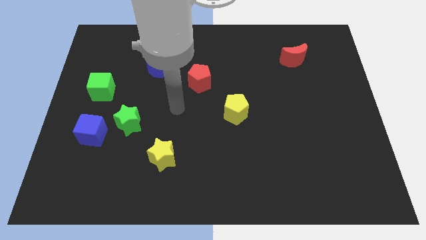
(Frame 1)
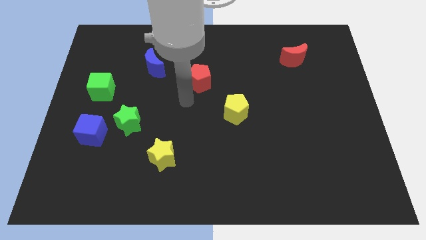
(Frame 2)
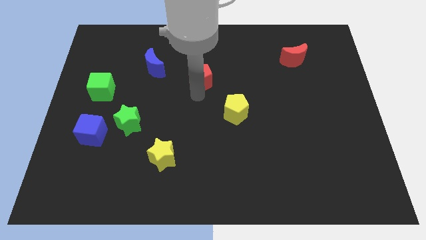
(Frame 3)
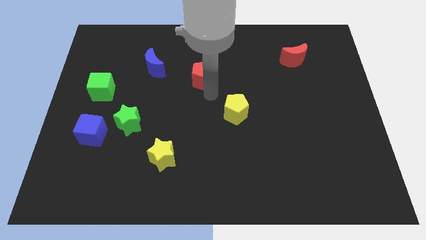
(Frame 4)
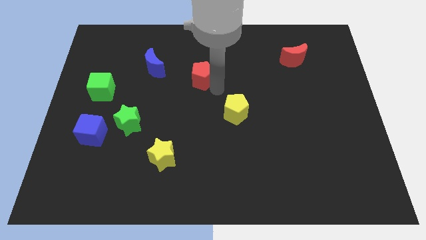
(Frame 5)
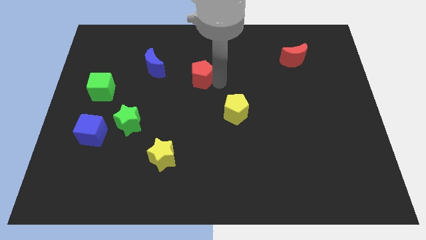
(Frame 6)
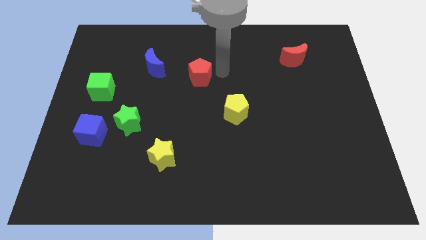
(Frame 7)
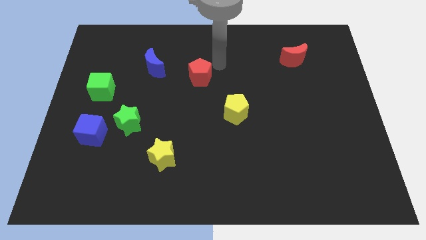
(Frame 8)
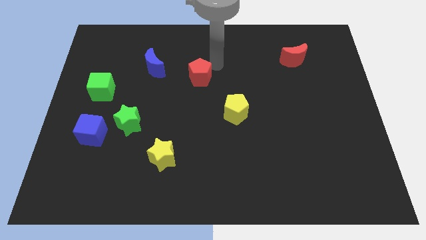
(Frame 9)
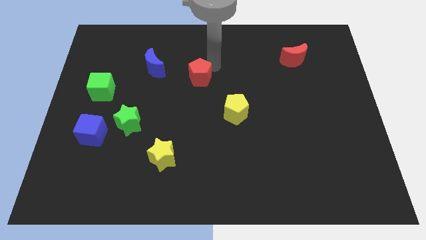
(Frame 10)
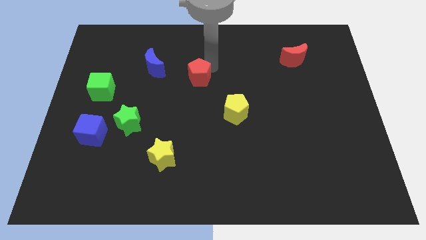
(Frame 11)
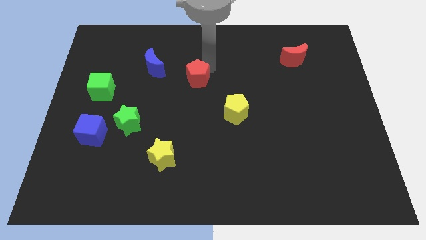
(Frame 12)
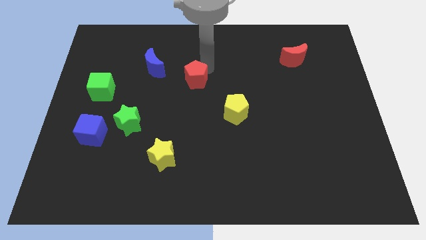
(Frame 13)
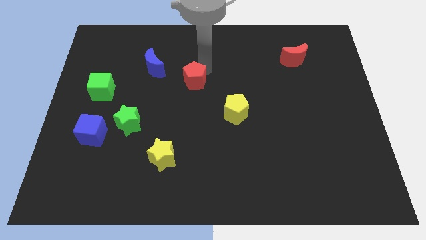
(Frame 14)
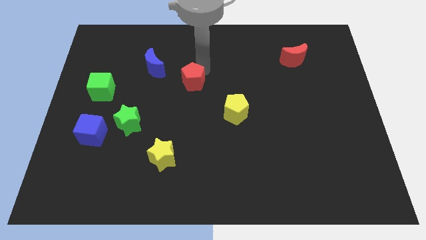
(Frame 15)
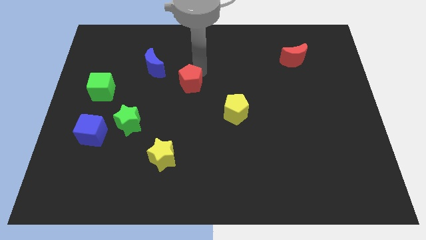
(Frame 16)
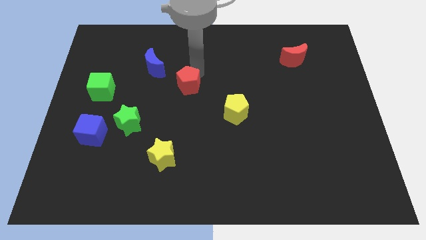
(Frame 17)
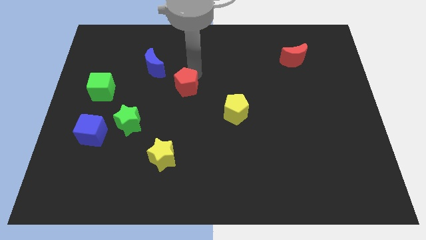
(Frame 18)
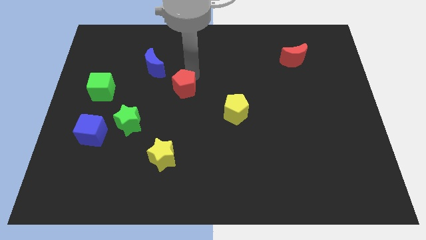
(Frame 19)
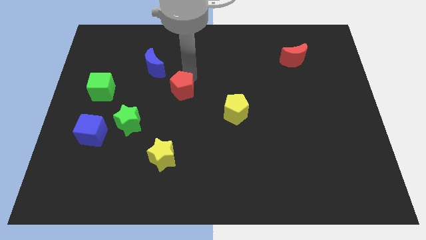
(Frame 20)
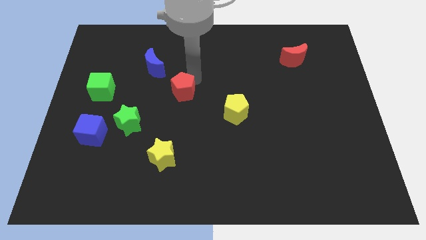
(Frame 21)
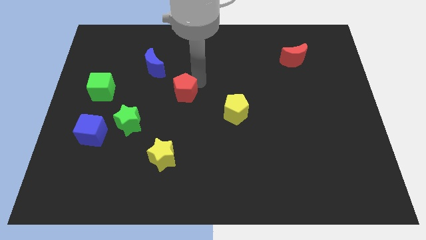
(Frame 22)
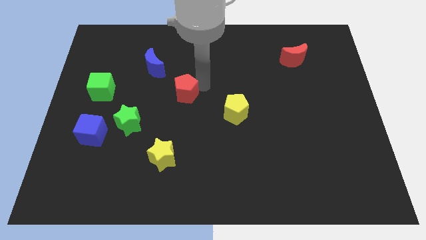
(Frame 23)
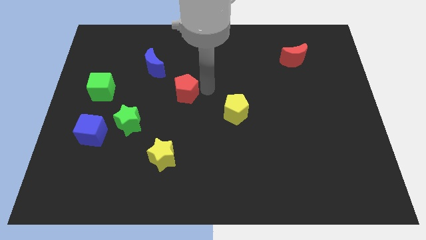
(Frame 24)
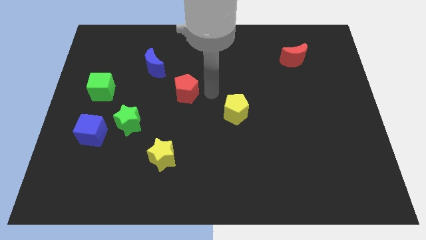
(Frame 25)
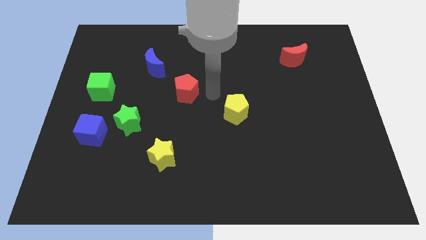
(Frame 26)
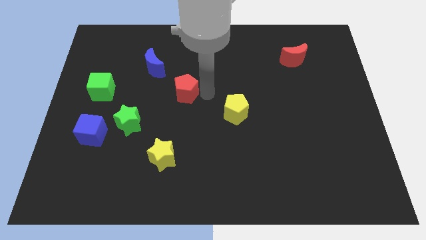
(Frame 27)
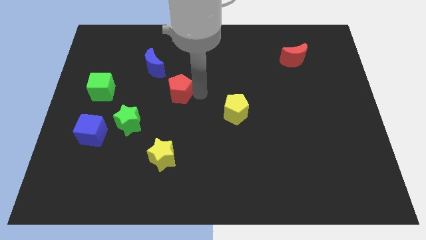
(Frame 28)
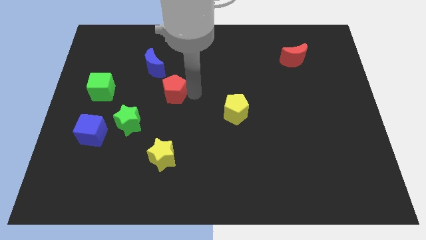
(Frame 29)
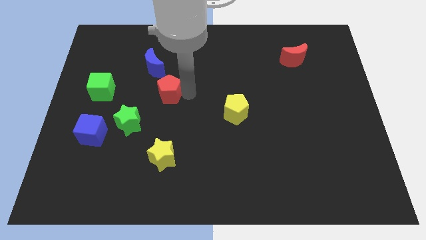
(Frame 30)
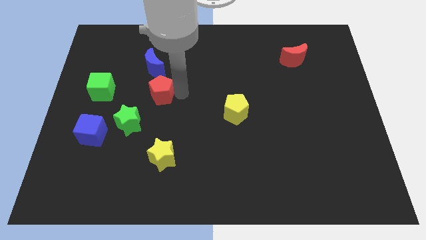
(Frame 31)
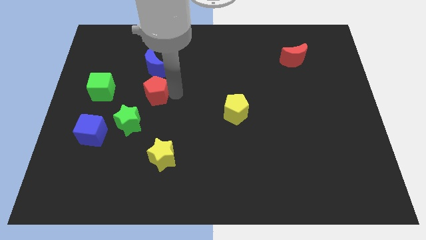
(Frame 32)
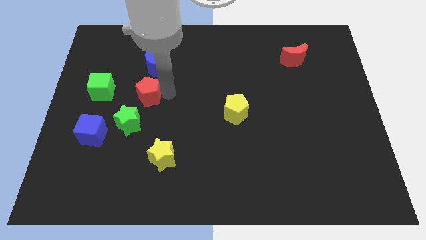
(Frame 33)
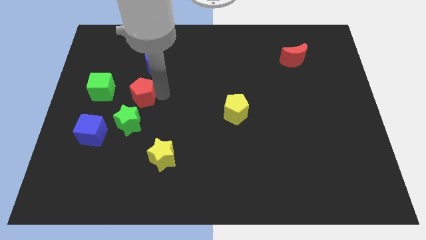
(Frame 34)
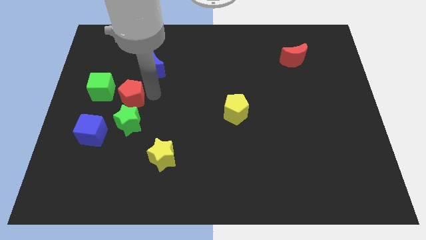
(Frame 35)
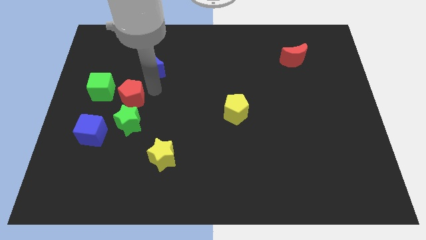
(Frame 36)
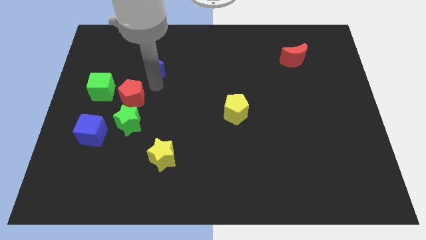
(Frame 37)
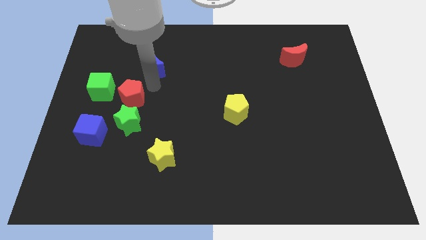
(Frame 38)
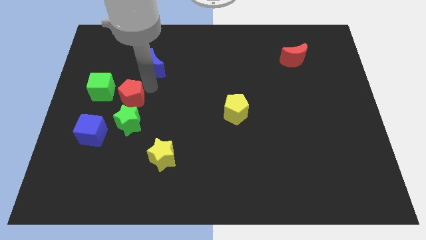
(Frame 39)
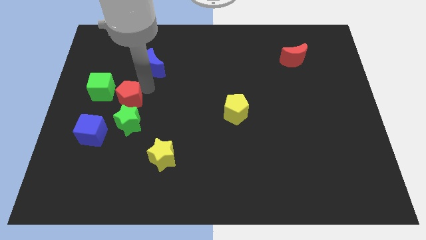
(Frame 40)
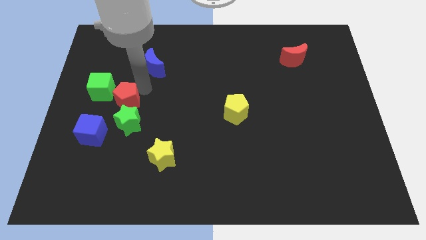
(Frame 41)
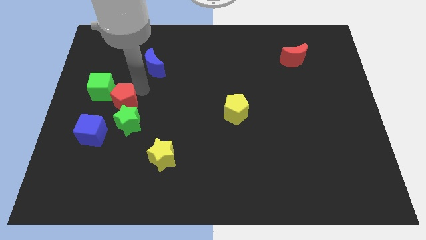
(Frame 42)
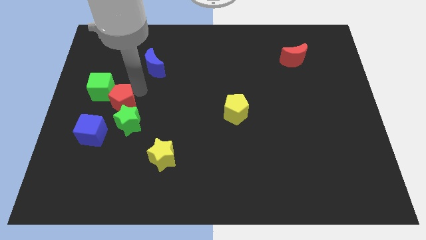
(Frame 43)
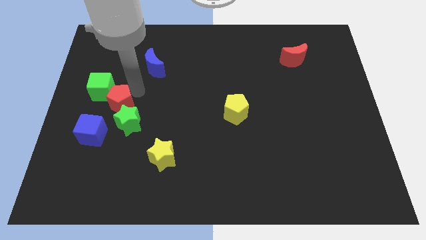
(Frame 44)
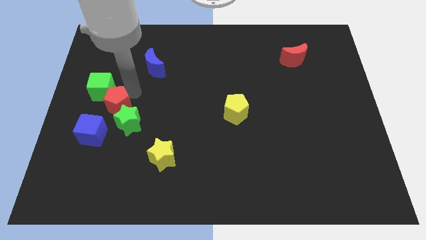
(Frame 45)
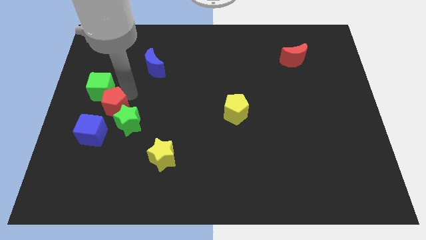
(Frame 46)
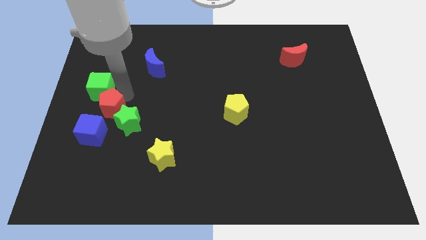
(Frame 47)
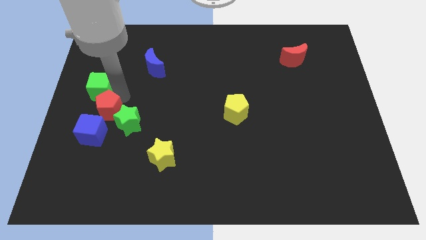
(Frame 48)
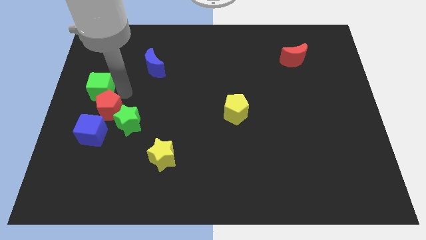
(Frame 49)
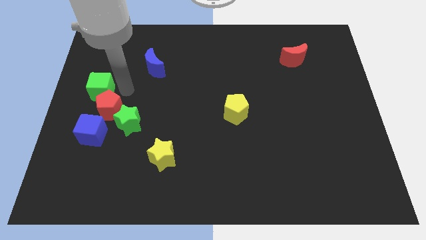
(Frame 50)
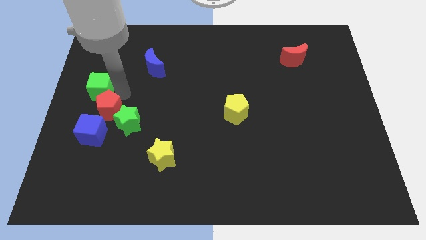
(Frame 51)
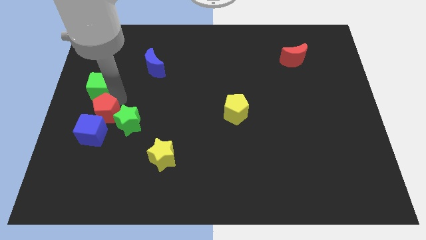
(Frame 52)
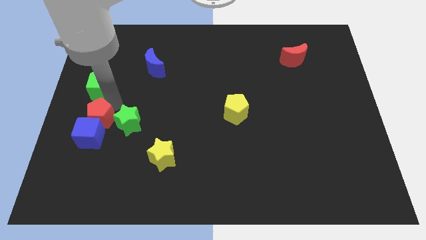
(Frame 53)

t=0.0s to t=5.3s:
push the red pentagon next to the blue cube

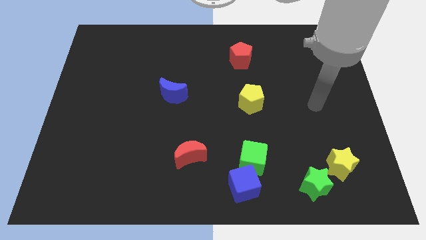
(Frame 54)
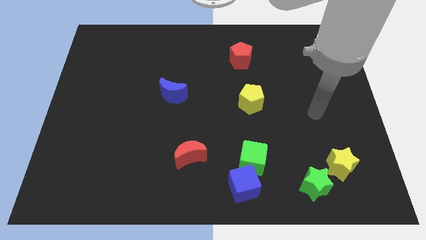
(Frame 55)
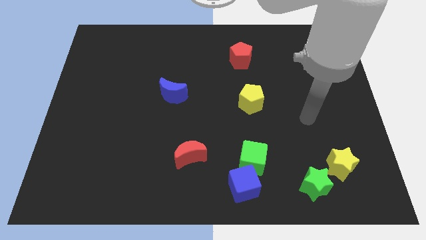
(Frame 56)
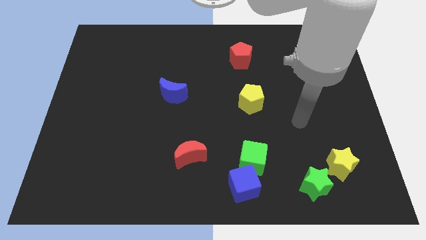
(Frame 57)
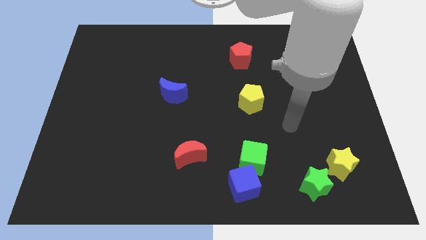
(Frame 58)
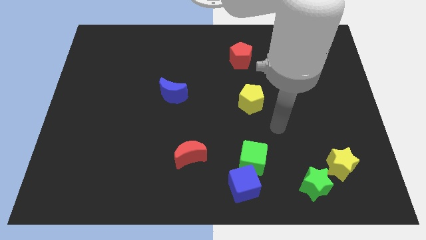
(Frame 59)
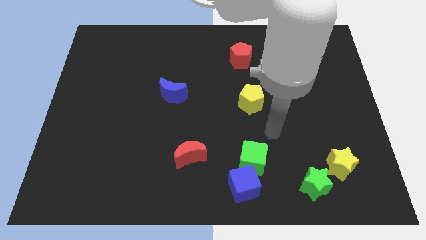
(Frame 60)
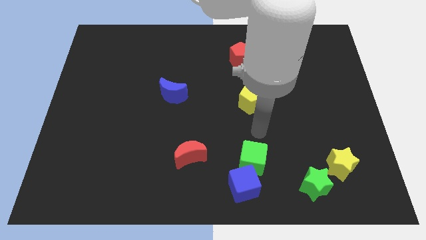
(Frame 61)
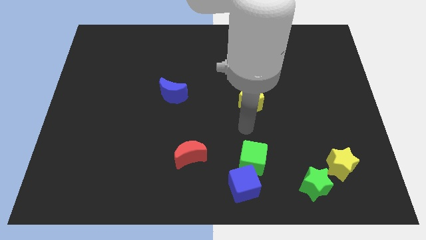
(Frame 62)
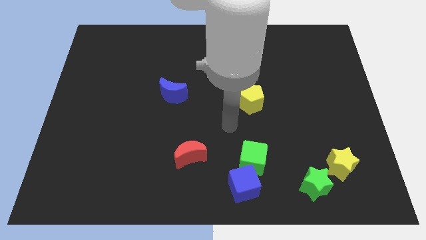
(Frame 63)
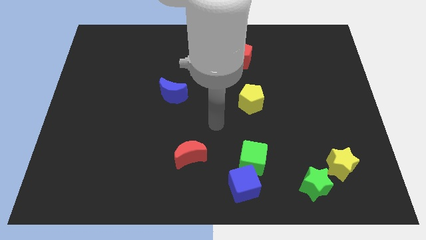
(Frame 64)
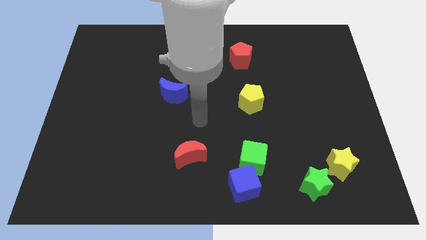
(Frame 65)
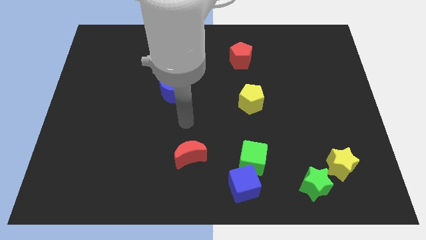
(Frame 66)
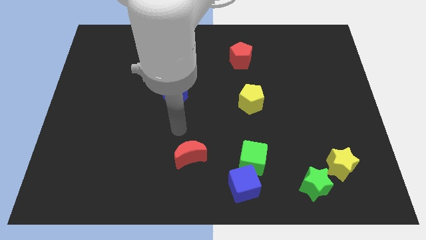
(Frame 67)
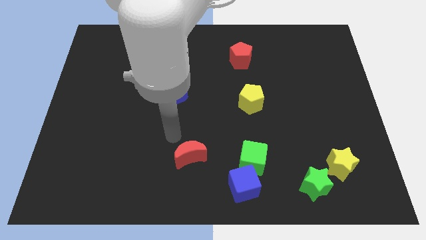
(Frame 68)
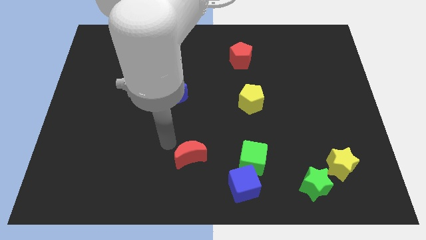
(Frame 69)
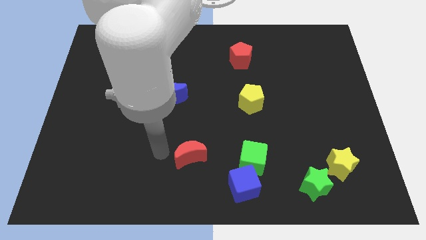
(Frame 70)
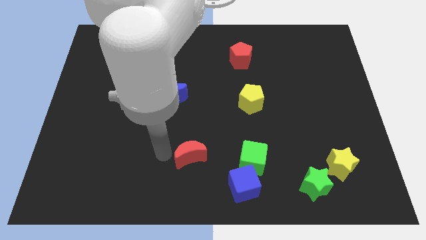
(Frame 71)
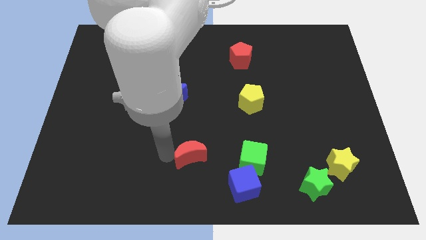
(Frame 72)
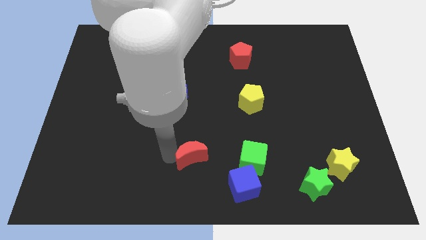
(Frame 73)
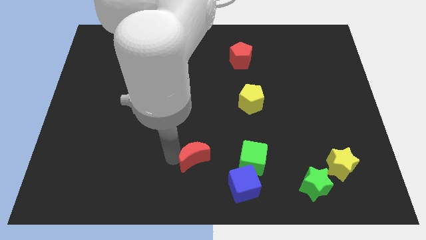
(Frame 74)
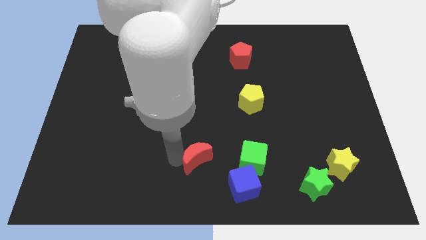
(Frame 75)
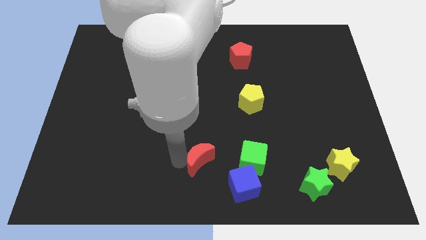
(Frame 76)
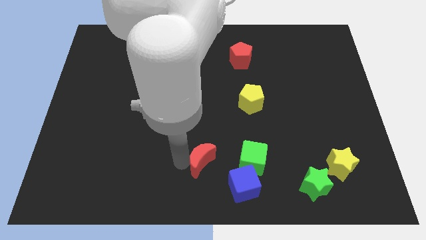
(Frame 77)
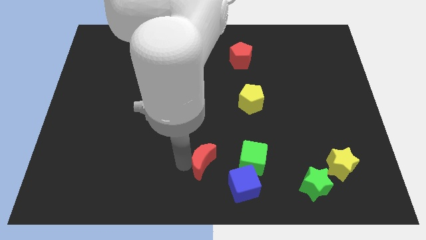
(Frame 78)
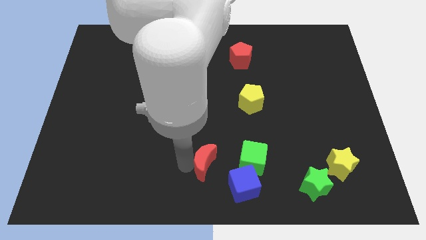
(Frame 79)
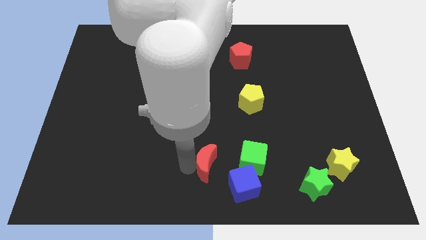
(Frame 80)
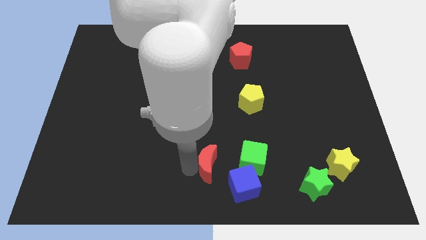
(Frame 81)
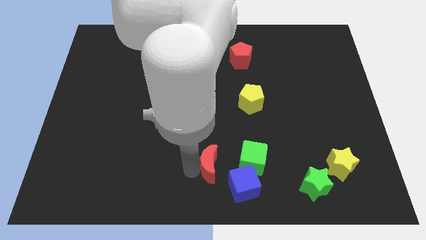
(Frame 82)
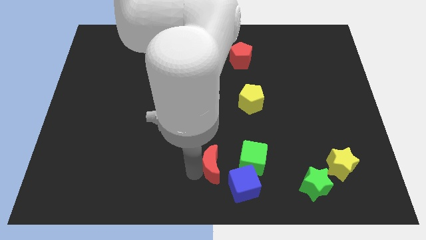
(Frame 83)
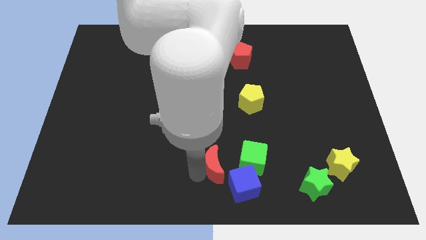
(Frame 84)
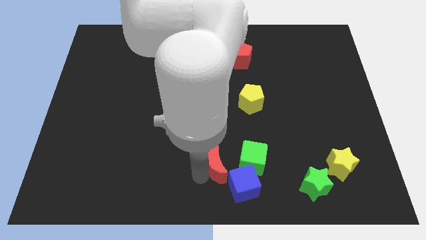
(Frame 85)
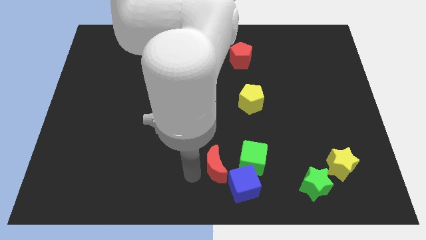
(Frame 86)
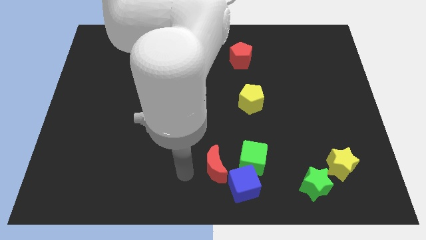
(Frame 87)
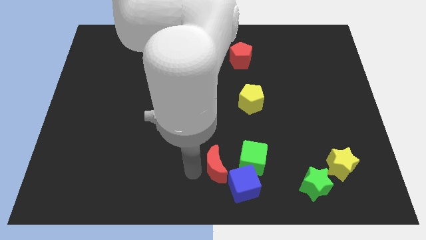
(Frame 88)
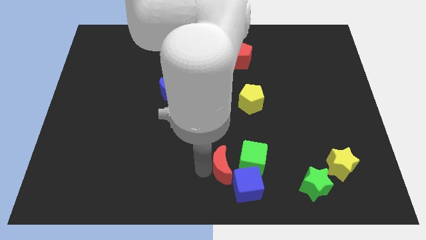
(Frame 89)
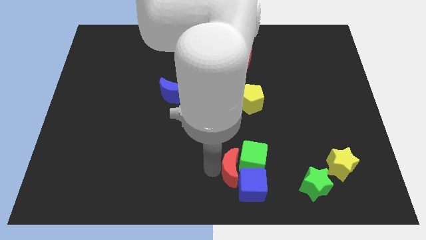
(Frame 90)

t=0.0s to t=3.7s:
slide the red moon towards the green cube
